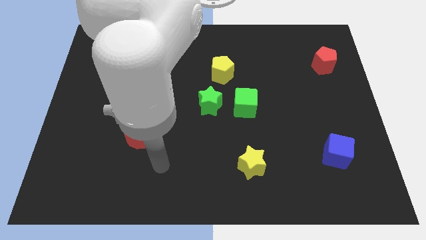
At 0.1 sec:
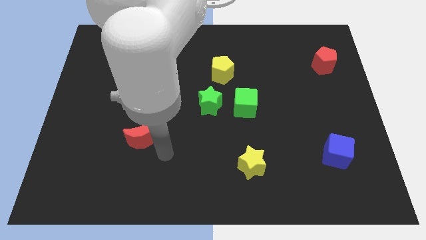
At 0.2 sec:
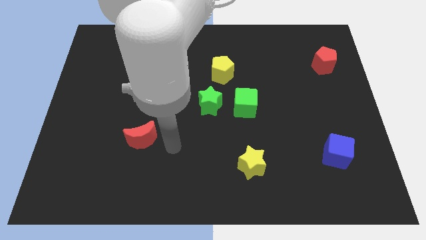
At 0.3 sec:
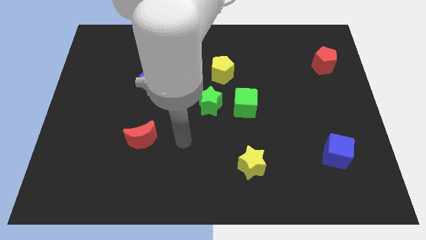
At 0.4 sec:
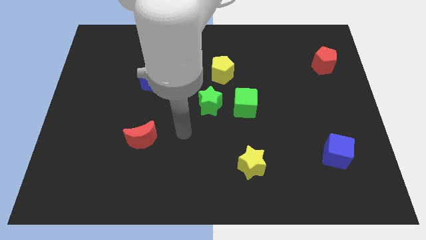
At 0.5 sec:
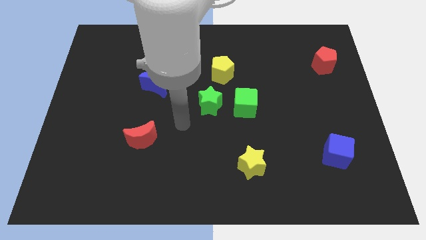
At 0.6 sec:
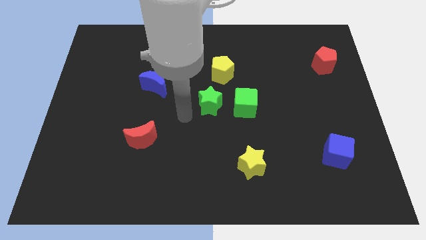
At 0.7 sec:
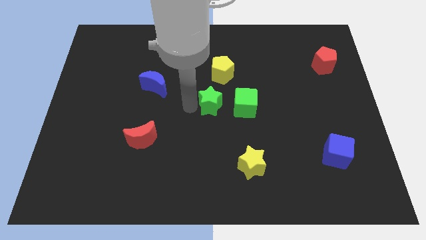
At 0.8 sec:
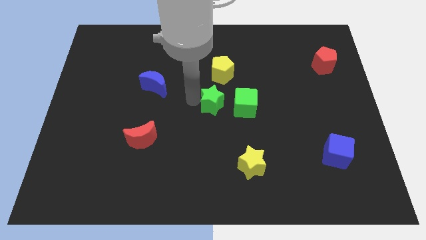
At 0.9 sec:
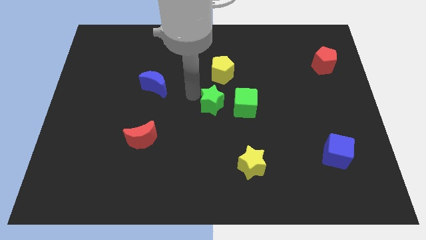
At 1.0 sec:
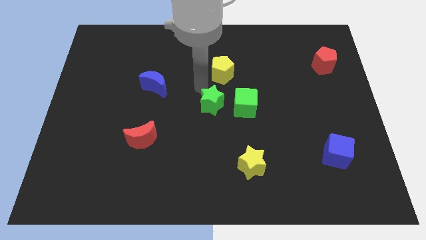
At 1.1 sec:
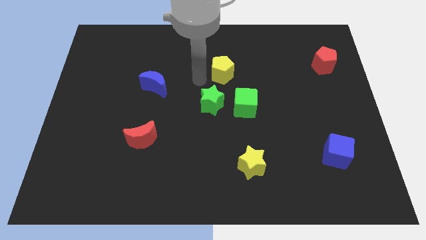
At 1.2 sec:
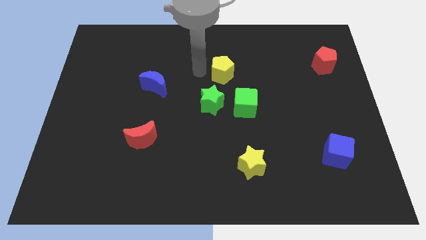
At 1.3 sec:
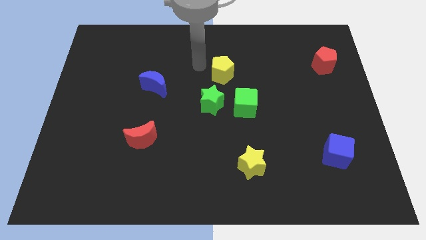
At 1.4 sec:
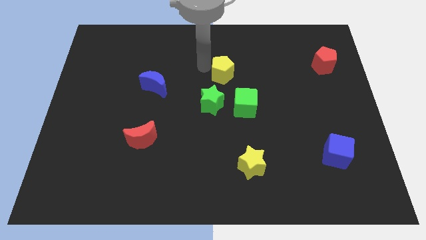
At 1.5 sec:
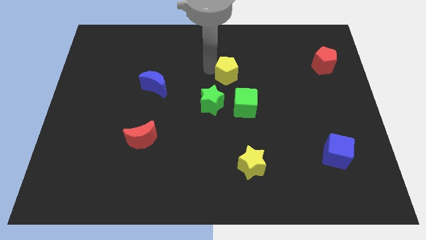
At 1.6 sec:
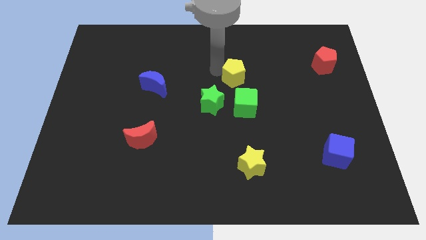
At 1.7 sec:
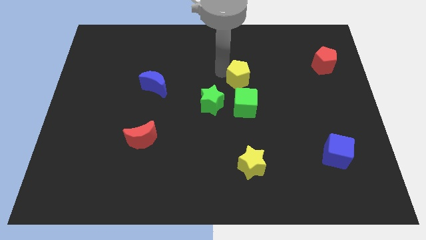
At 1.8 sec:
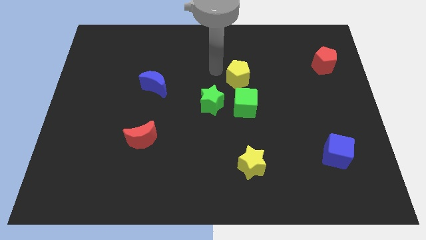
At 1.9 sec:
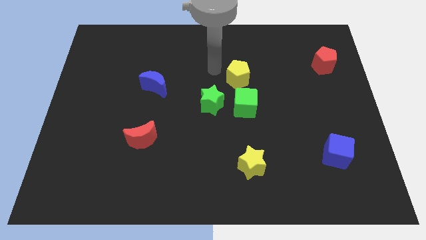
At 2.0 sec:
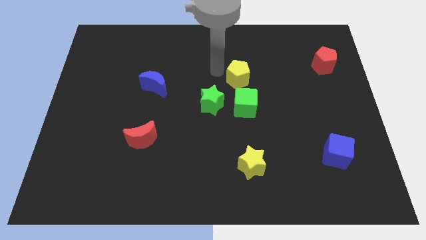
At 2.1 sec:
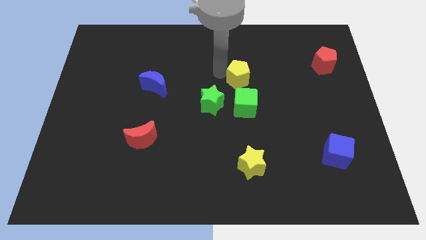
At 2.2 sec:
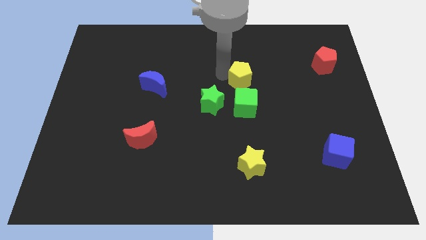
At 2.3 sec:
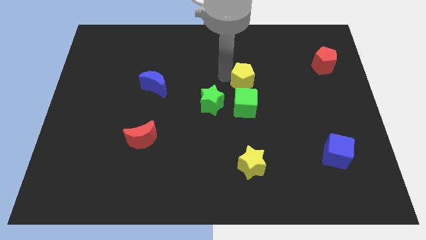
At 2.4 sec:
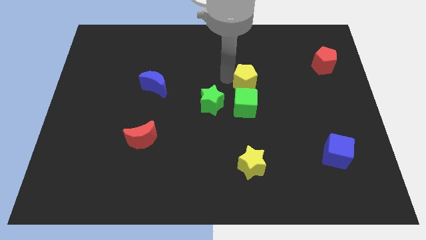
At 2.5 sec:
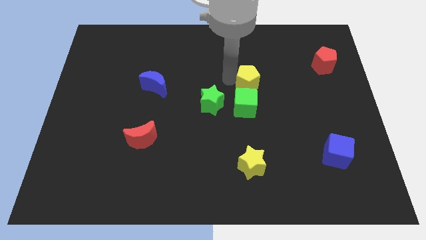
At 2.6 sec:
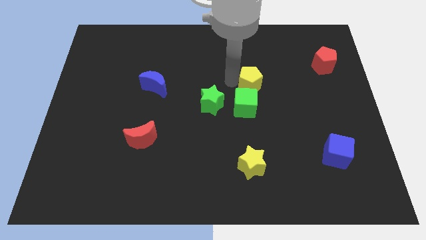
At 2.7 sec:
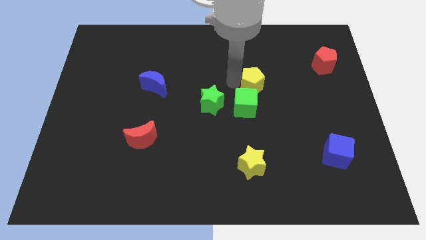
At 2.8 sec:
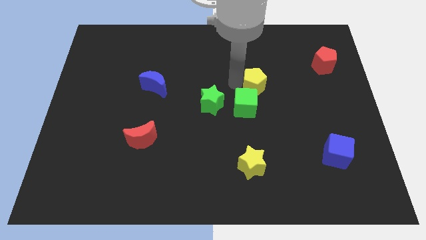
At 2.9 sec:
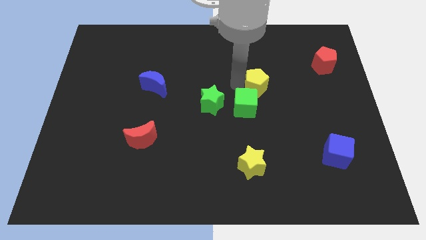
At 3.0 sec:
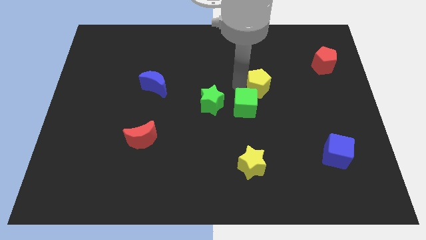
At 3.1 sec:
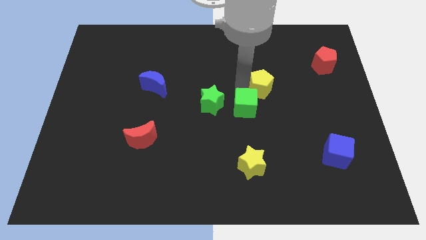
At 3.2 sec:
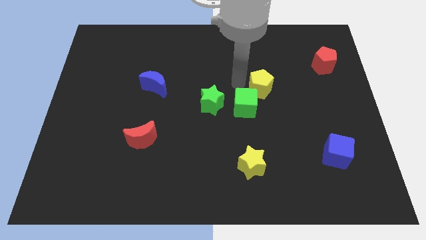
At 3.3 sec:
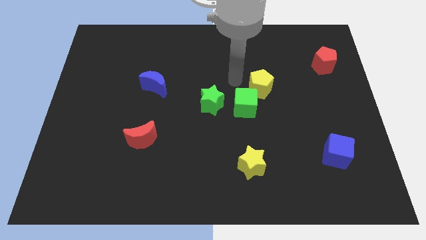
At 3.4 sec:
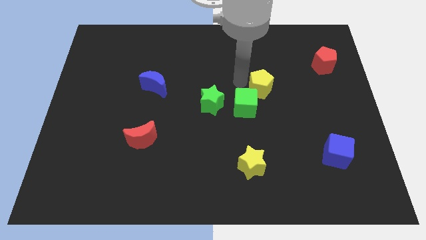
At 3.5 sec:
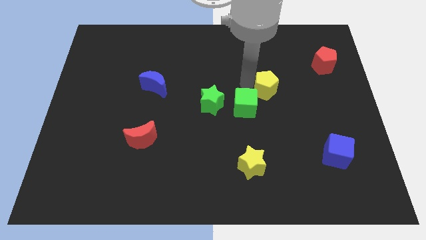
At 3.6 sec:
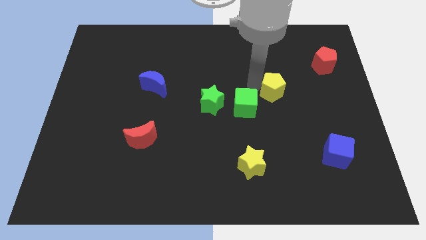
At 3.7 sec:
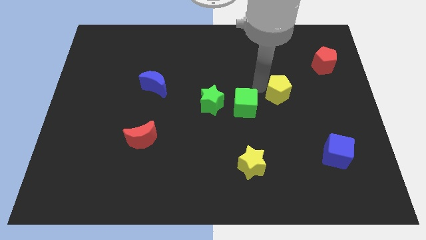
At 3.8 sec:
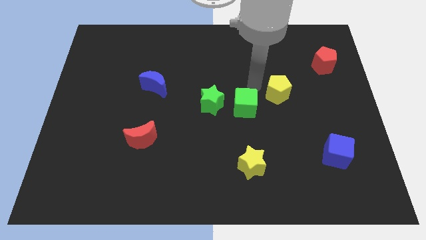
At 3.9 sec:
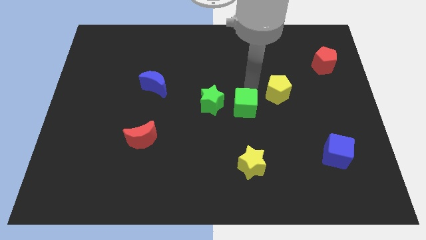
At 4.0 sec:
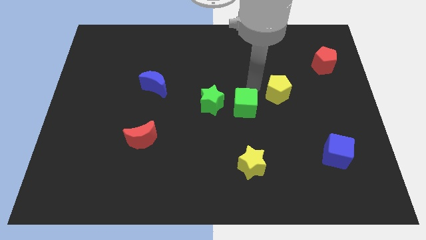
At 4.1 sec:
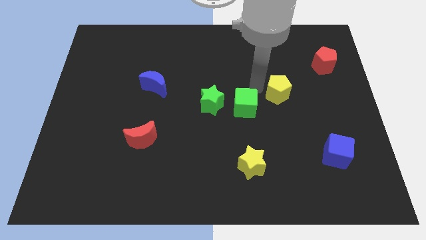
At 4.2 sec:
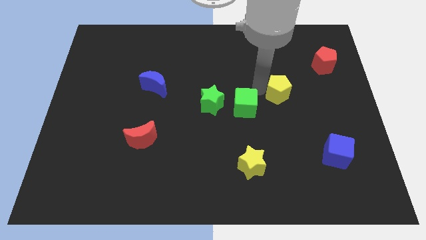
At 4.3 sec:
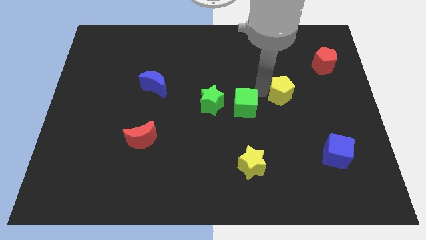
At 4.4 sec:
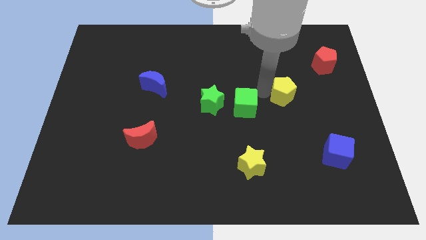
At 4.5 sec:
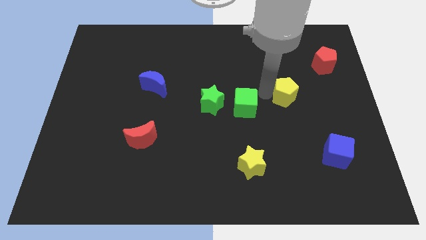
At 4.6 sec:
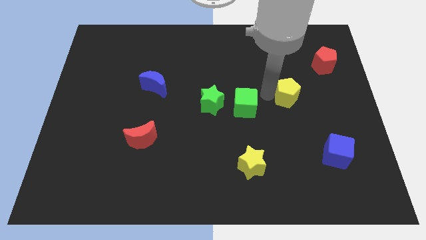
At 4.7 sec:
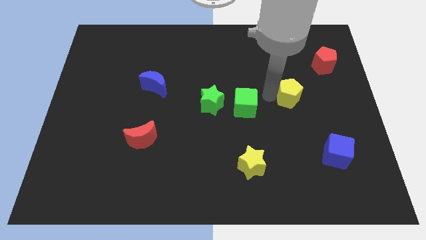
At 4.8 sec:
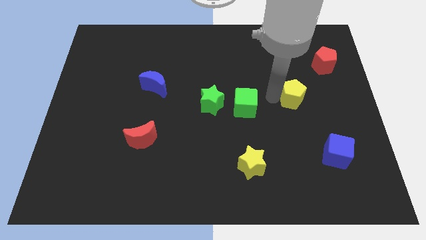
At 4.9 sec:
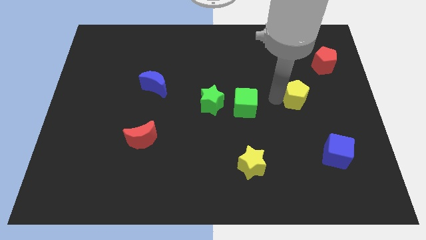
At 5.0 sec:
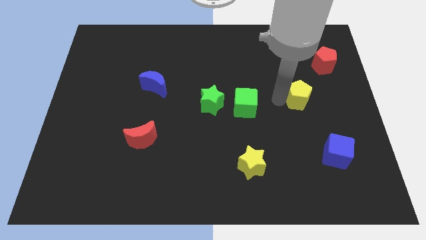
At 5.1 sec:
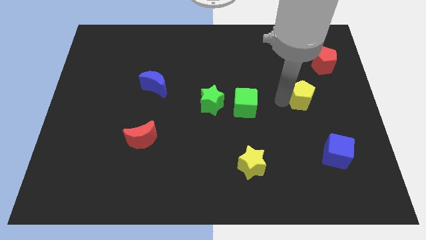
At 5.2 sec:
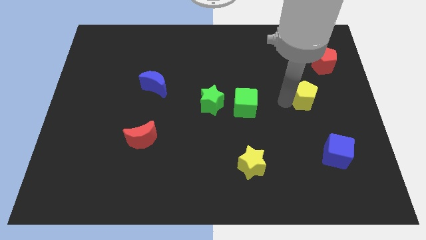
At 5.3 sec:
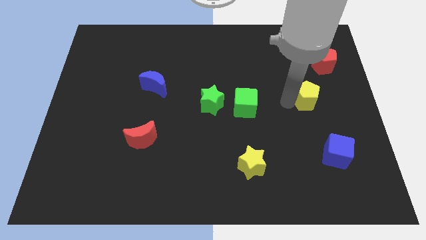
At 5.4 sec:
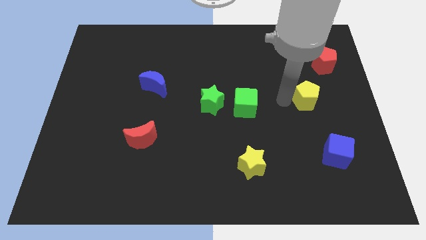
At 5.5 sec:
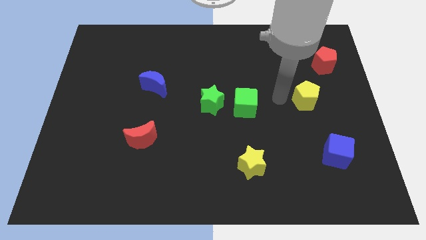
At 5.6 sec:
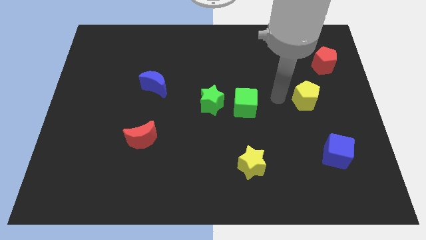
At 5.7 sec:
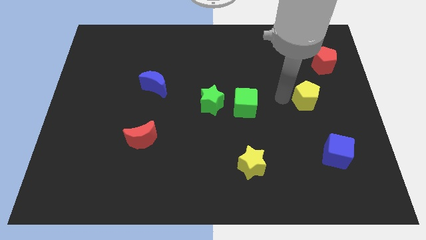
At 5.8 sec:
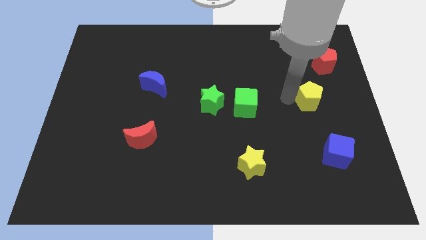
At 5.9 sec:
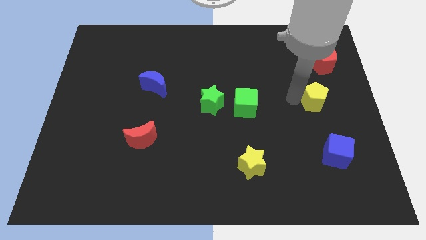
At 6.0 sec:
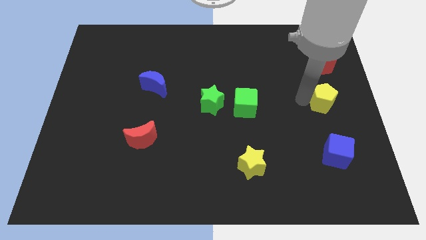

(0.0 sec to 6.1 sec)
put the yellow pentagon to the right side of the board
